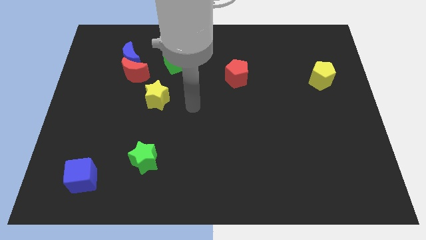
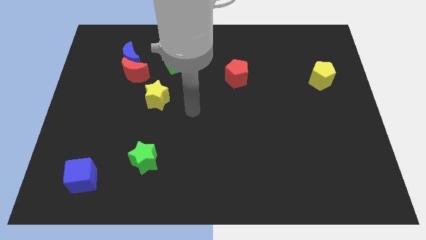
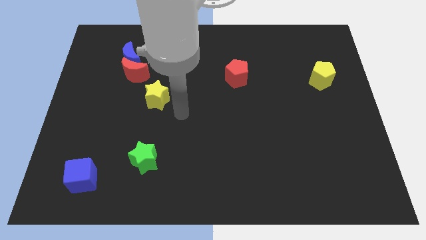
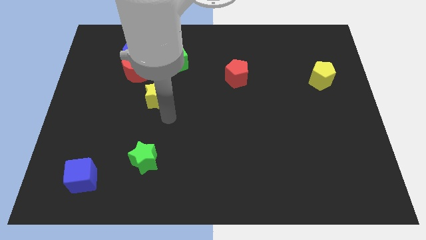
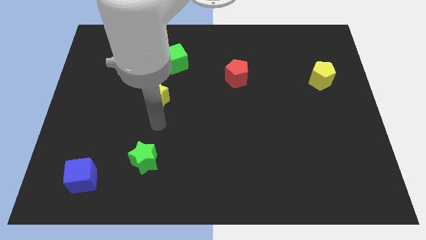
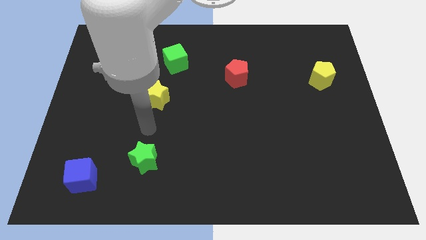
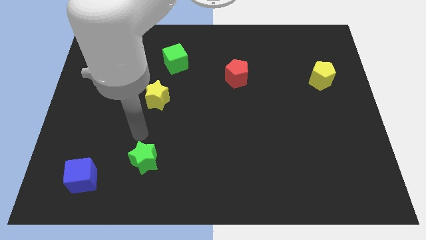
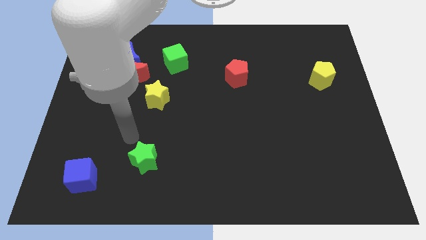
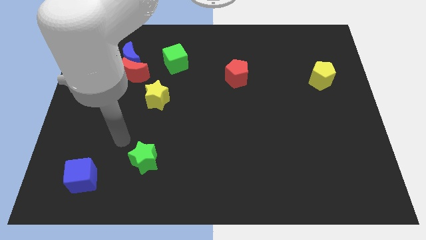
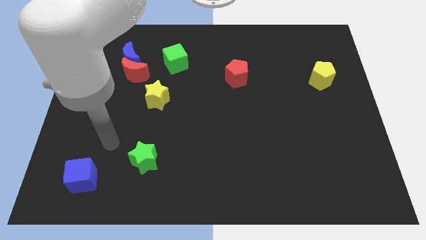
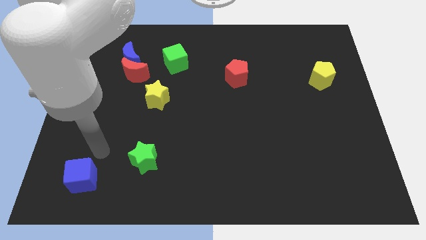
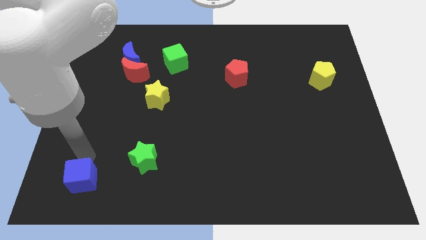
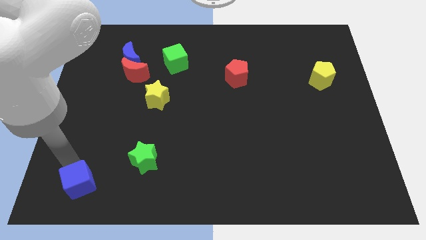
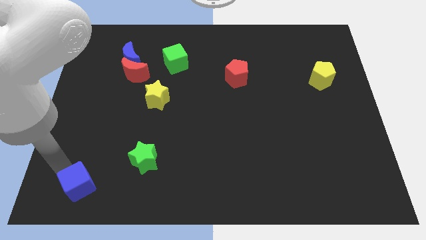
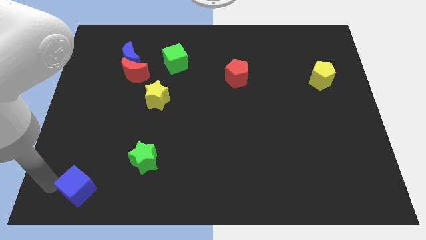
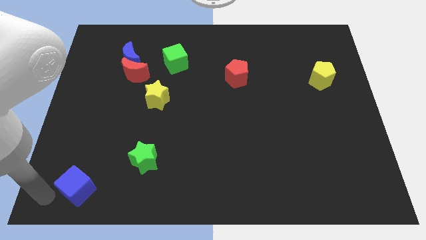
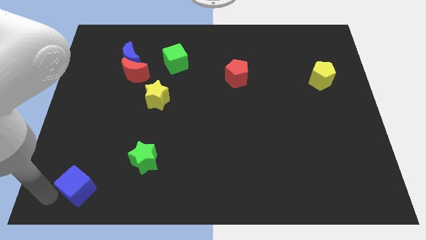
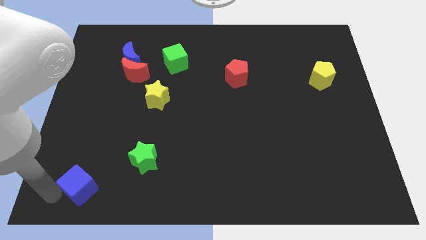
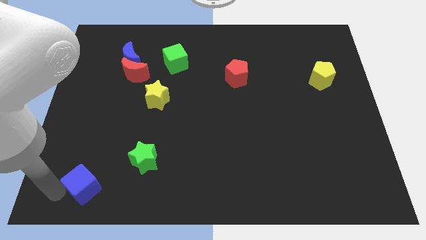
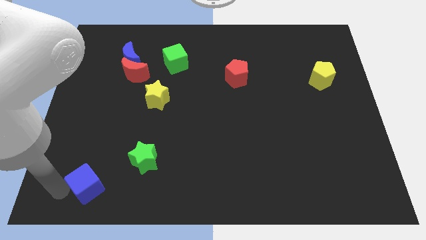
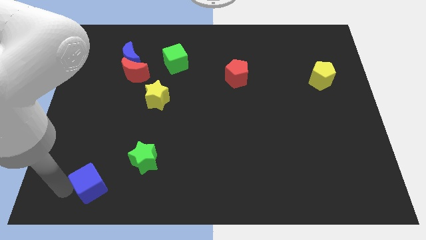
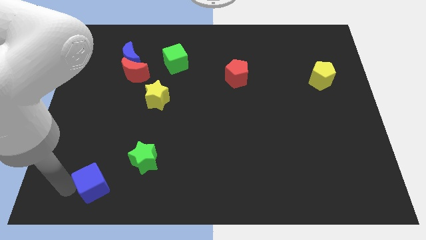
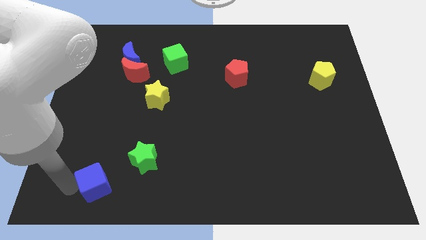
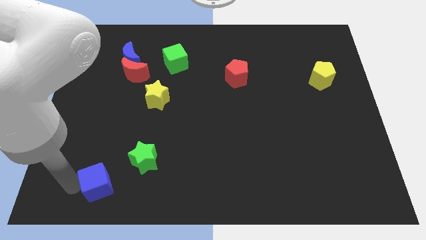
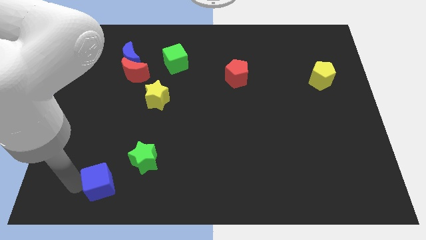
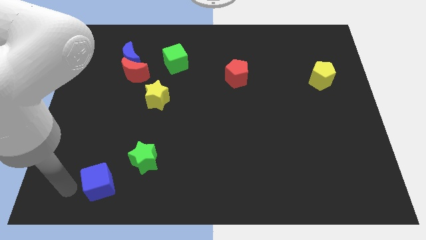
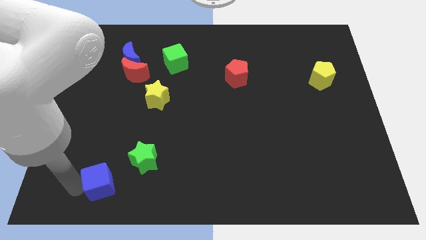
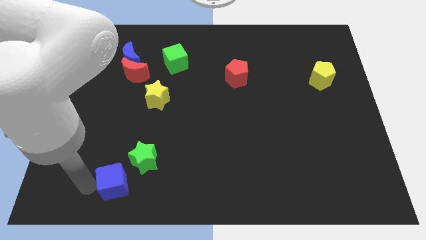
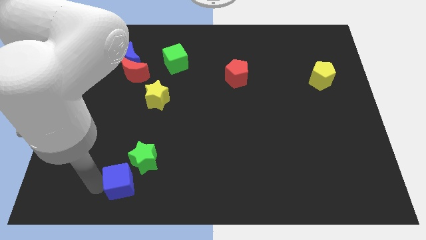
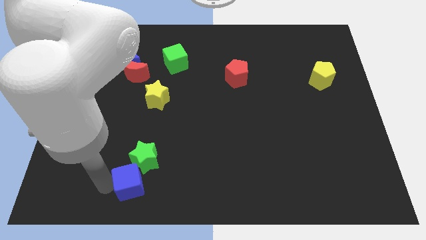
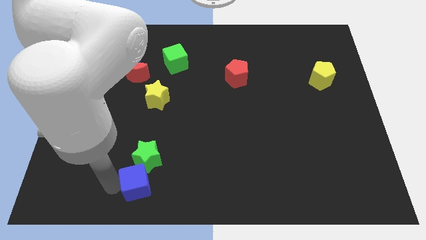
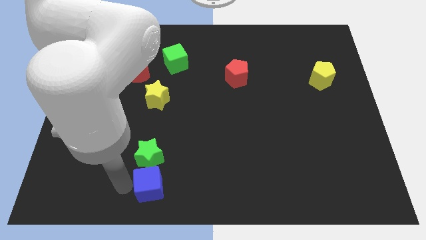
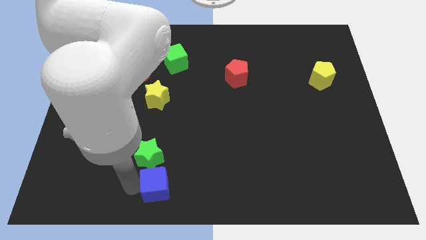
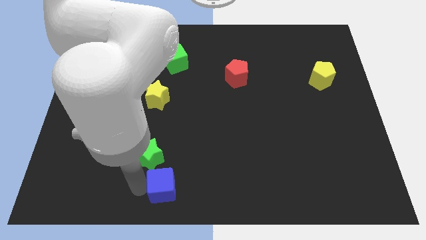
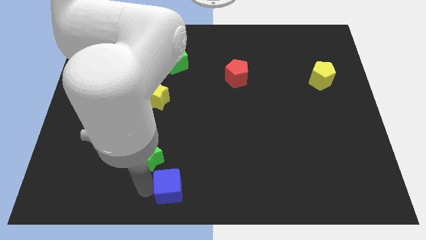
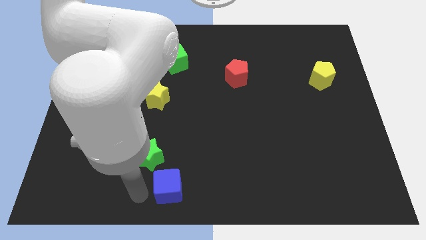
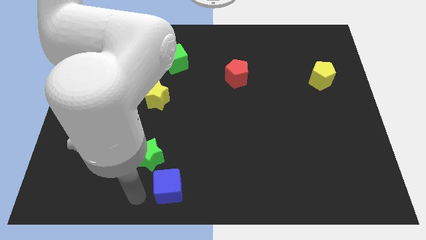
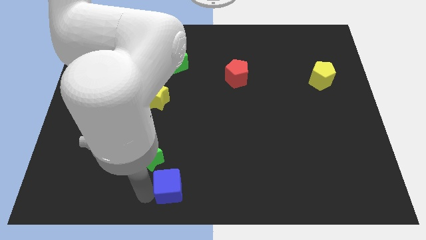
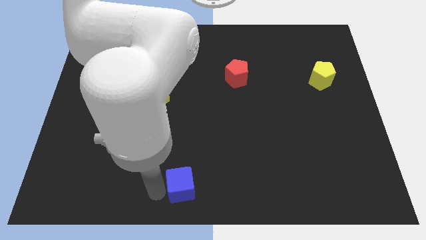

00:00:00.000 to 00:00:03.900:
push the blue cube to the right

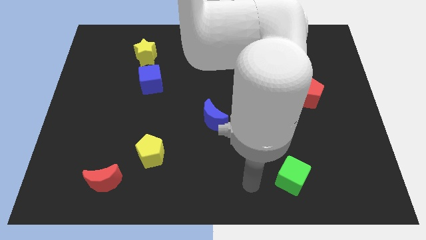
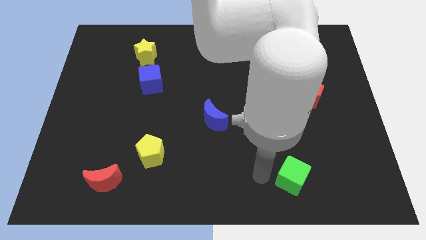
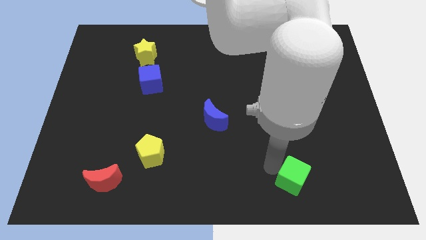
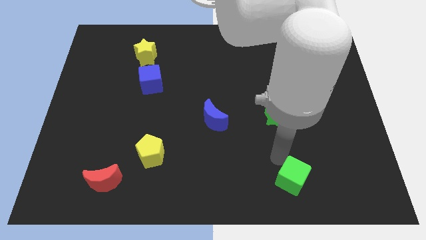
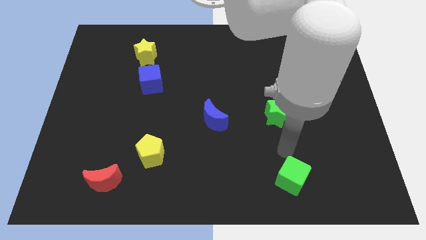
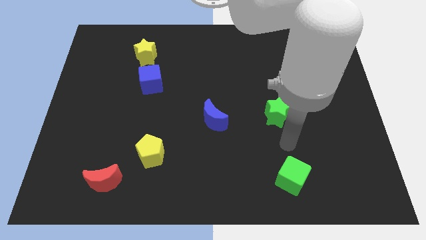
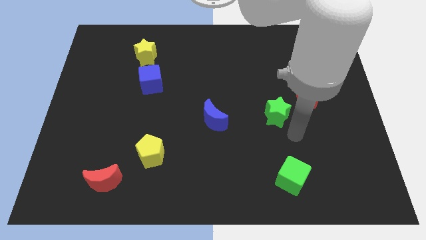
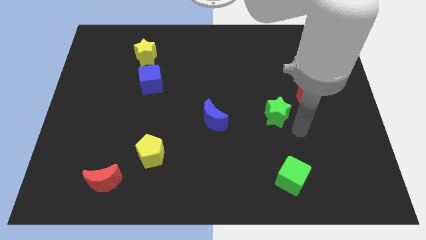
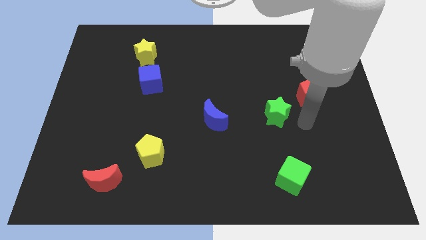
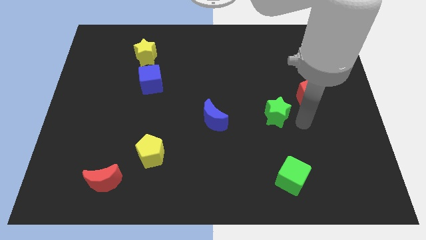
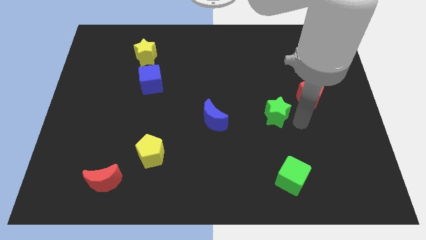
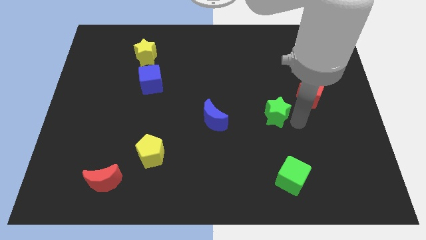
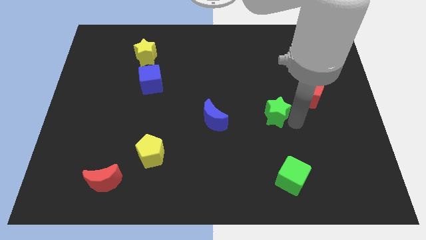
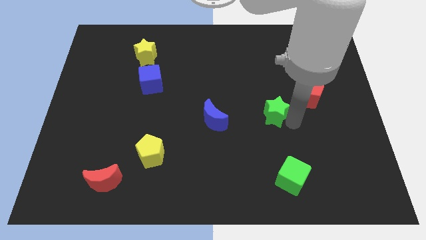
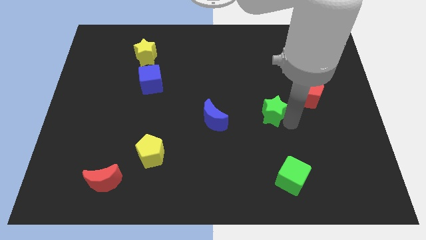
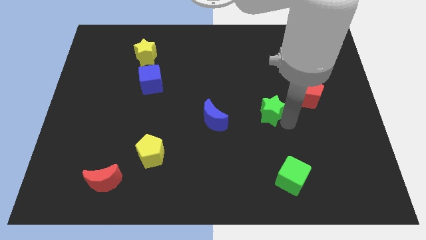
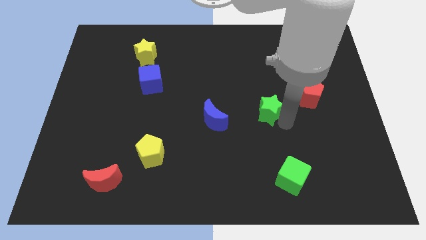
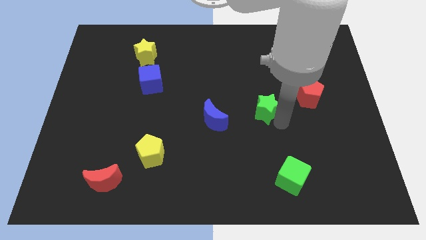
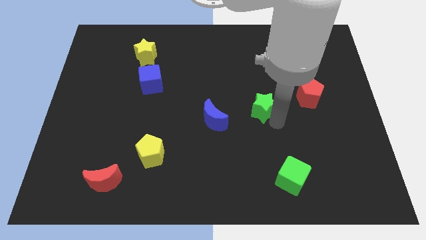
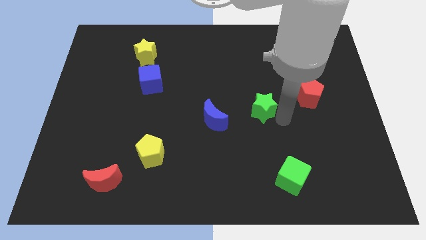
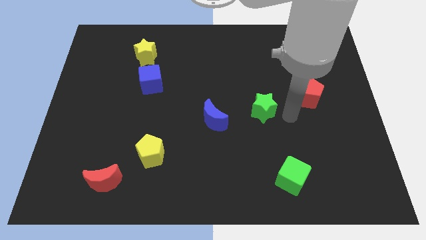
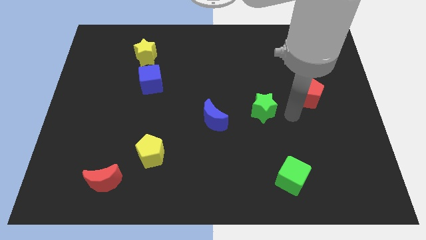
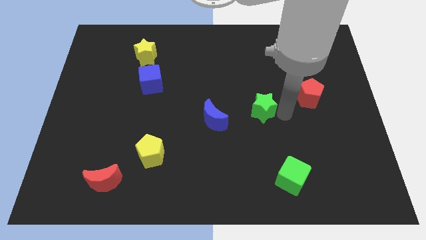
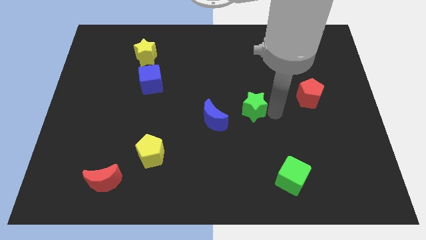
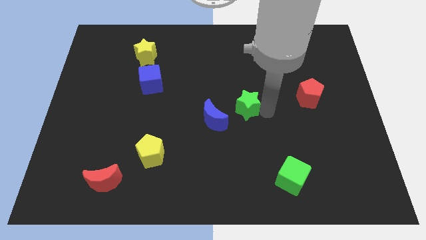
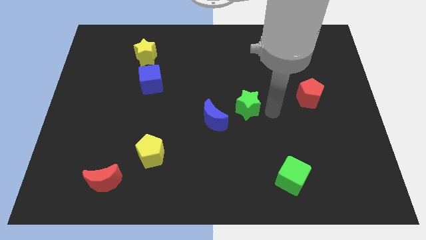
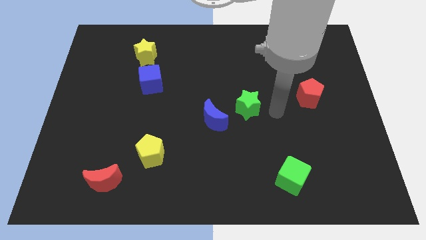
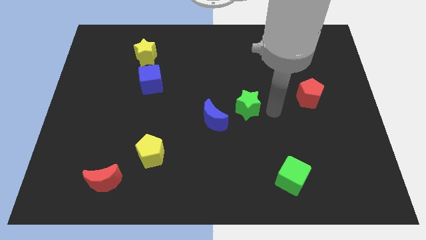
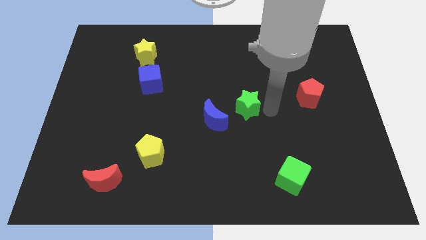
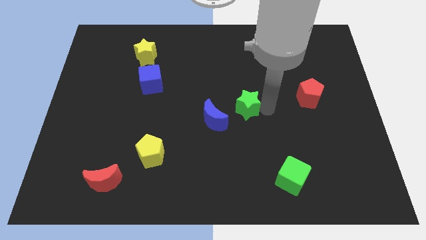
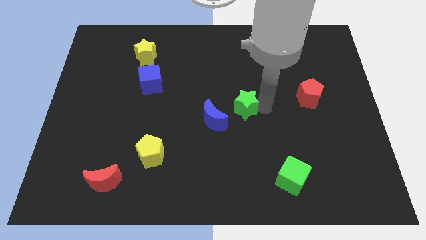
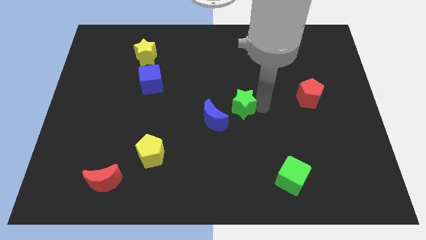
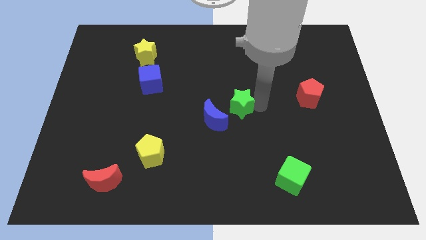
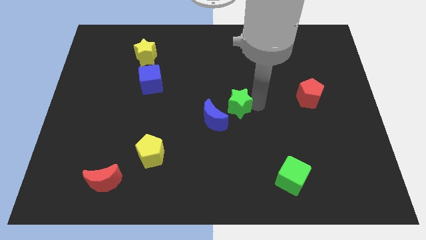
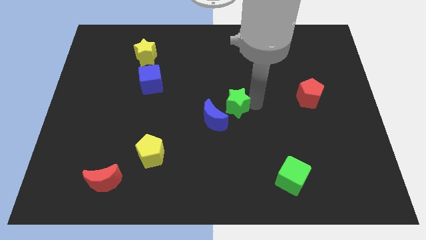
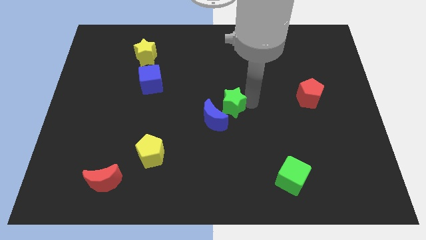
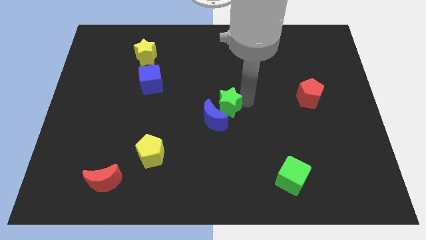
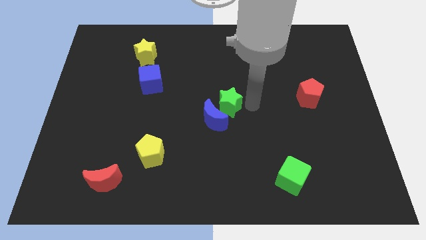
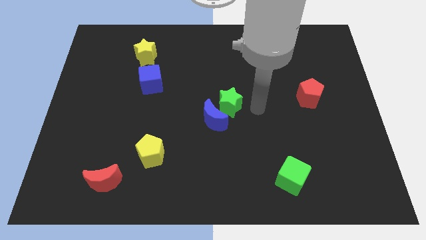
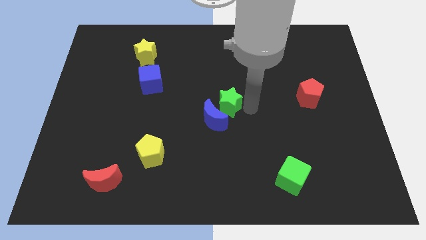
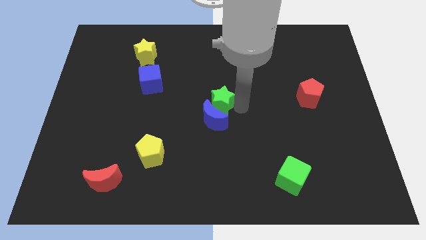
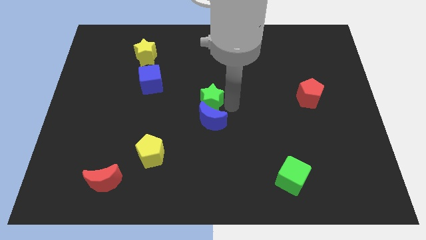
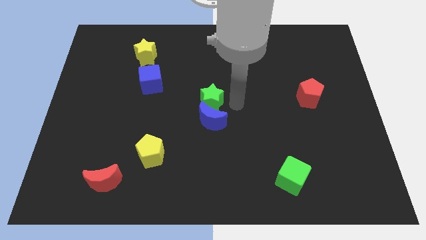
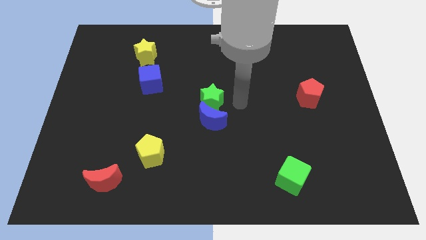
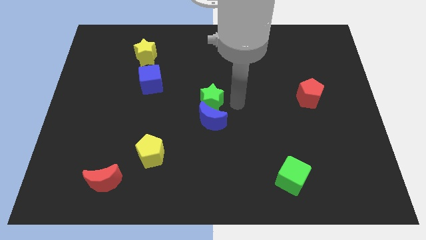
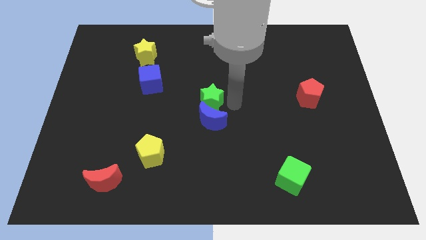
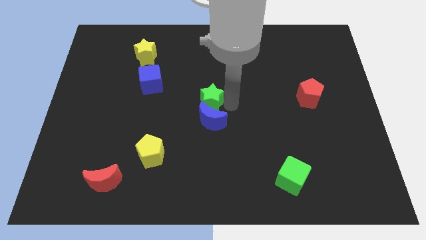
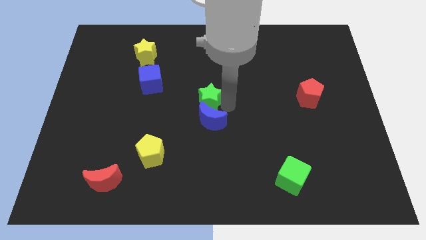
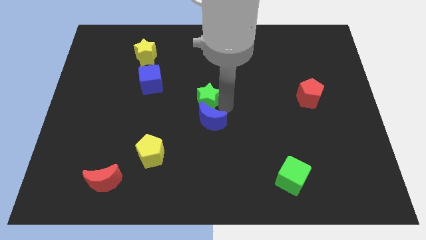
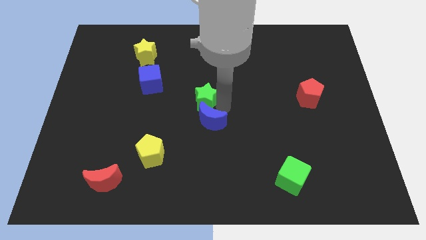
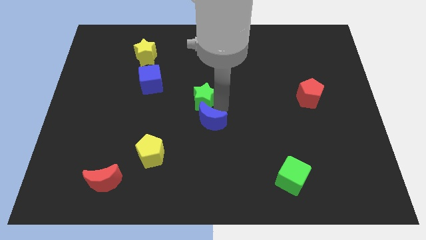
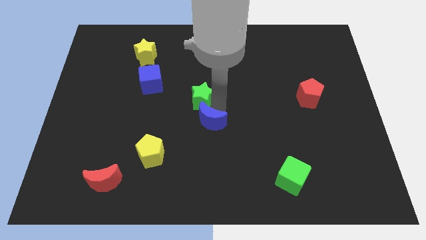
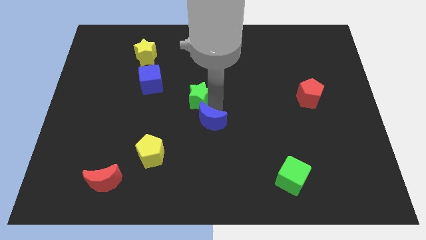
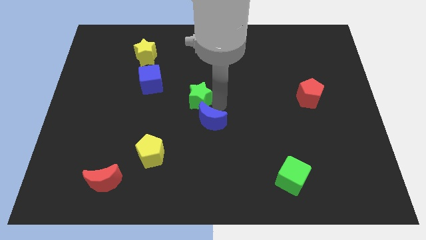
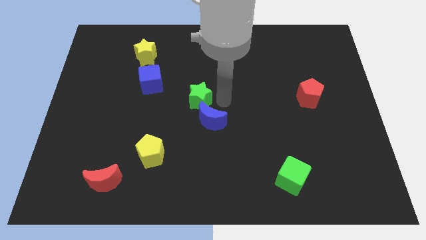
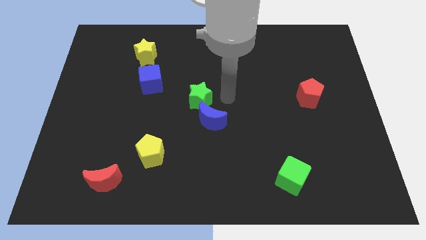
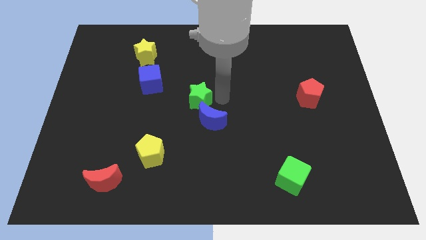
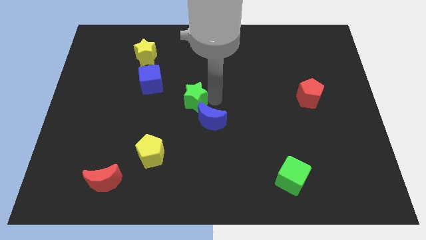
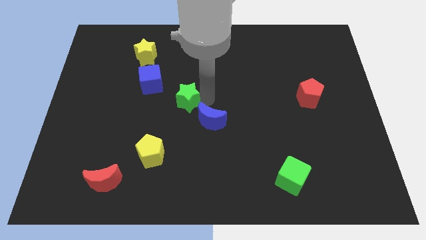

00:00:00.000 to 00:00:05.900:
push the green star left
